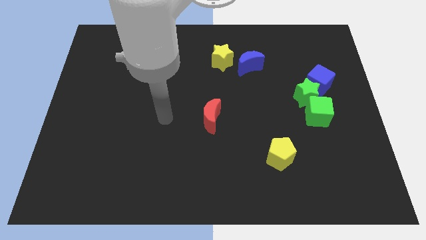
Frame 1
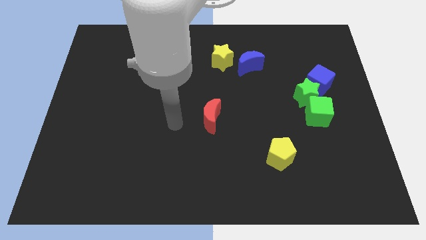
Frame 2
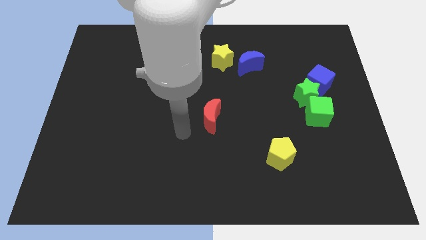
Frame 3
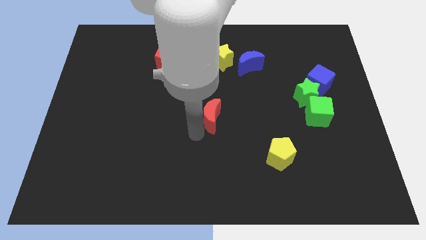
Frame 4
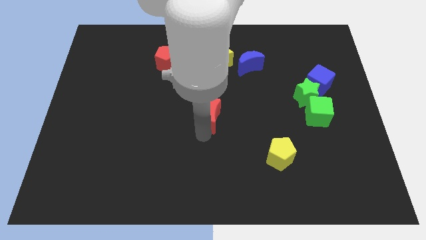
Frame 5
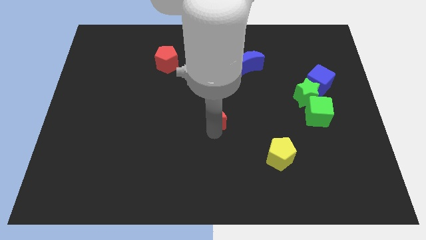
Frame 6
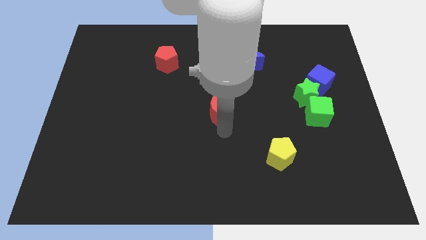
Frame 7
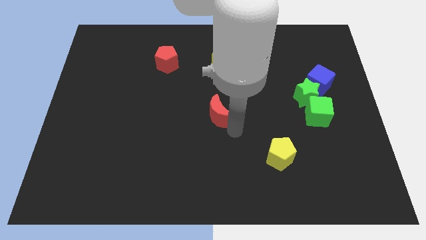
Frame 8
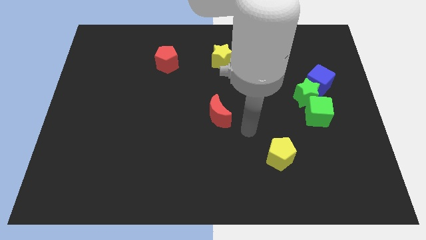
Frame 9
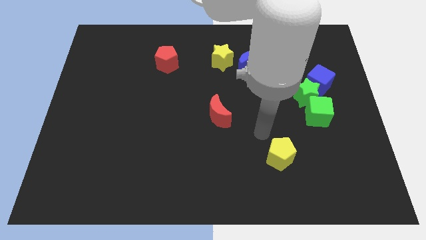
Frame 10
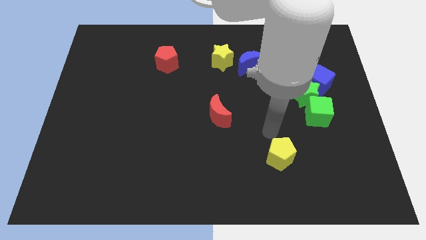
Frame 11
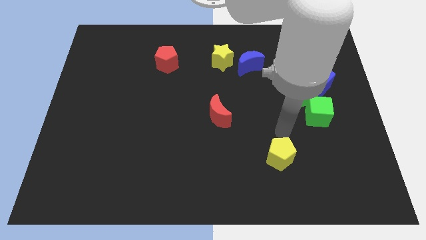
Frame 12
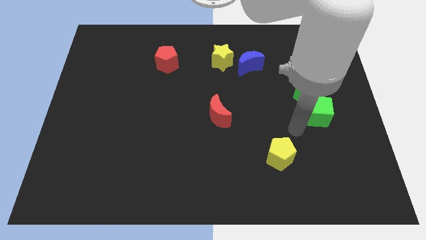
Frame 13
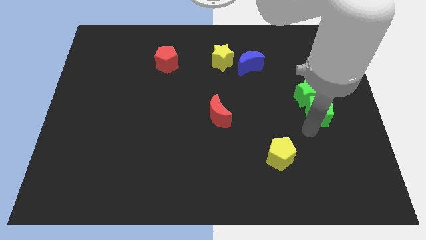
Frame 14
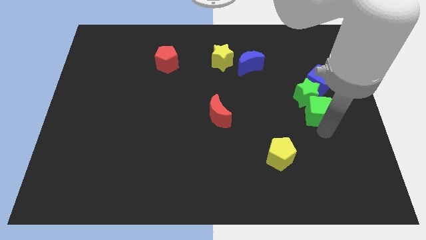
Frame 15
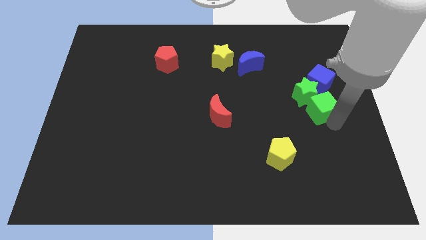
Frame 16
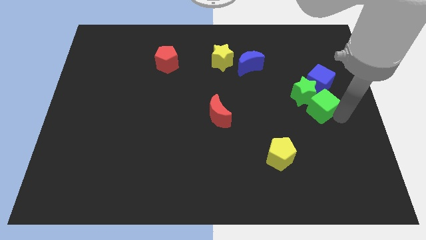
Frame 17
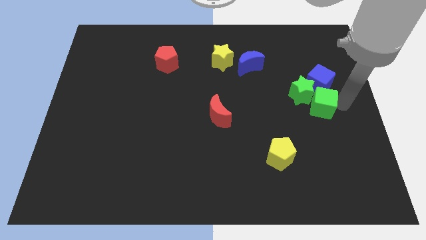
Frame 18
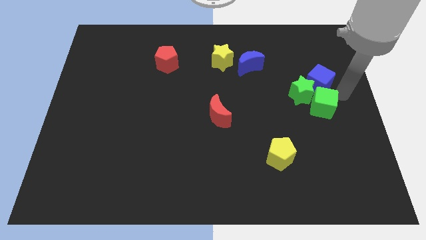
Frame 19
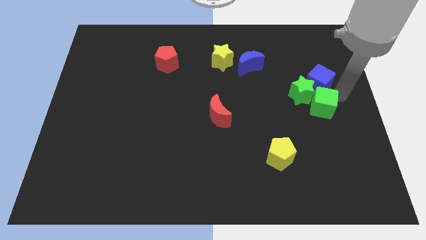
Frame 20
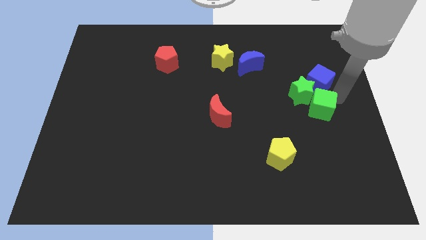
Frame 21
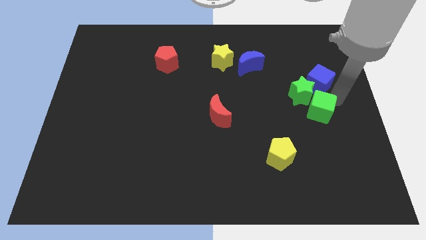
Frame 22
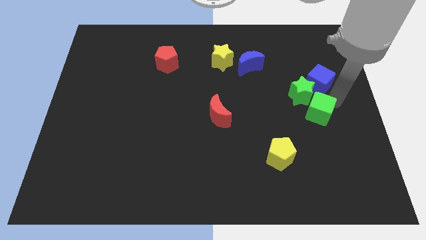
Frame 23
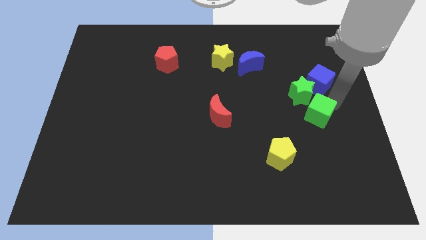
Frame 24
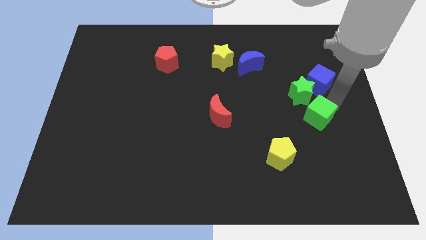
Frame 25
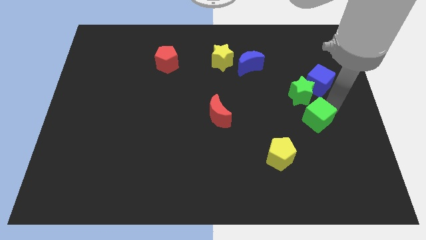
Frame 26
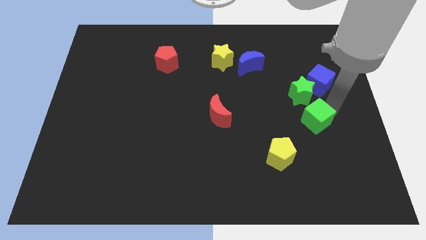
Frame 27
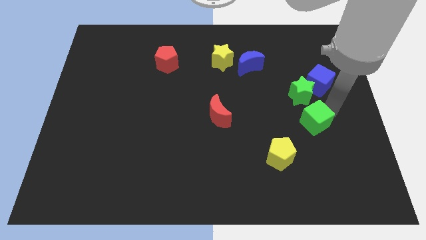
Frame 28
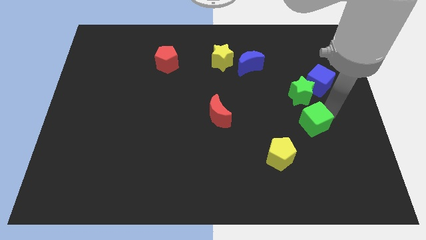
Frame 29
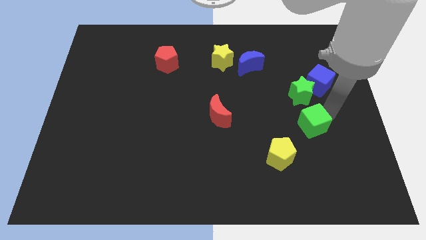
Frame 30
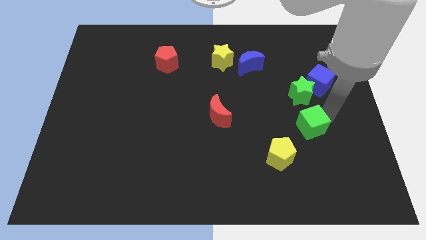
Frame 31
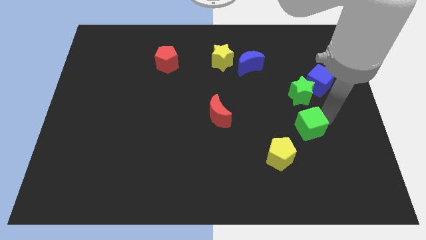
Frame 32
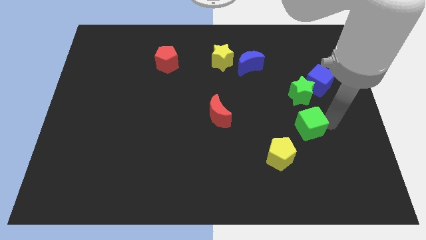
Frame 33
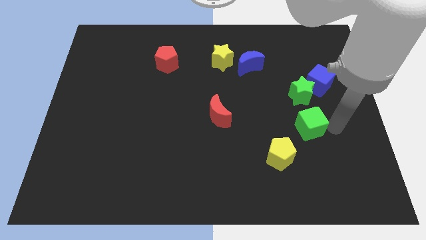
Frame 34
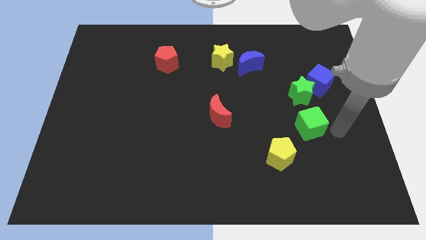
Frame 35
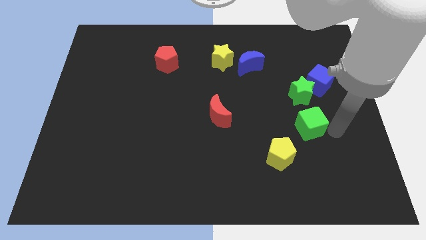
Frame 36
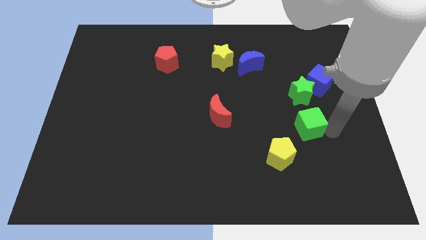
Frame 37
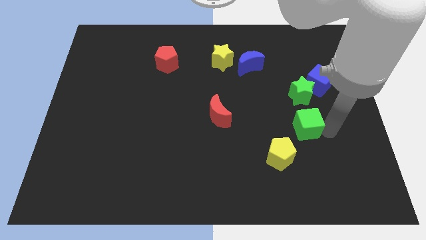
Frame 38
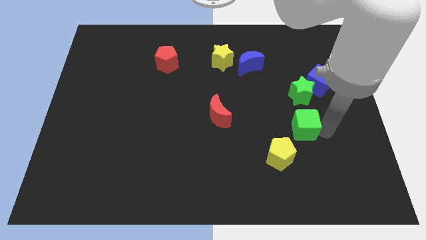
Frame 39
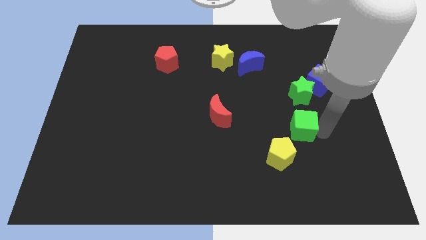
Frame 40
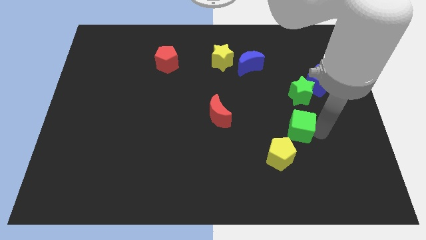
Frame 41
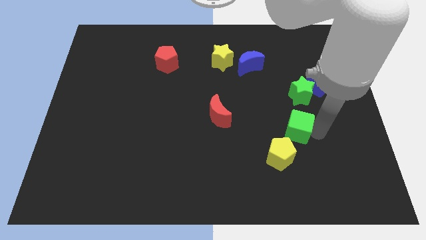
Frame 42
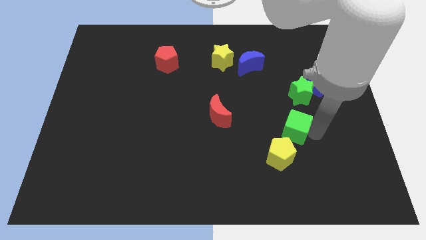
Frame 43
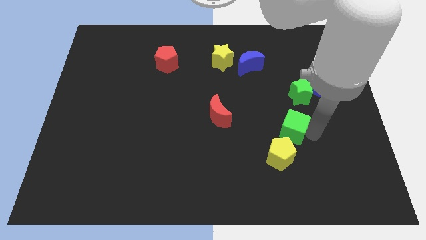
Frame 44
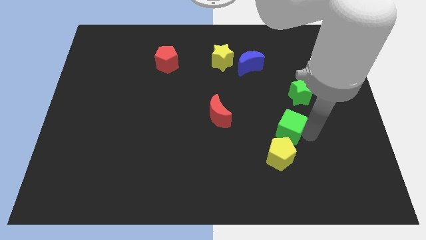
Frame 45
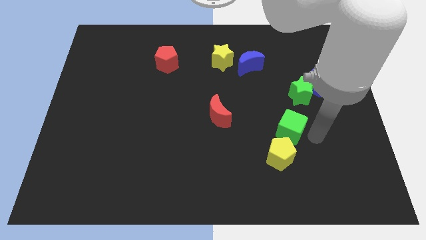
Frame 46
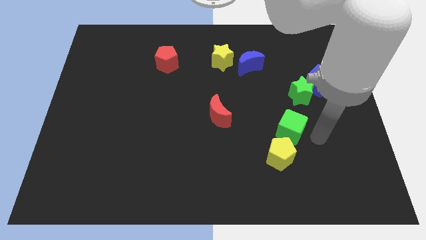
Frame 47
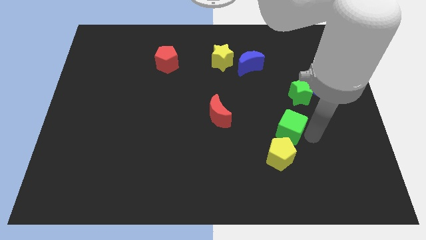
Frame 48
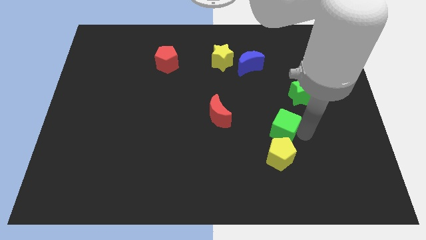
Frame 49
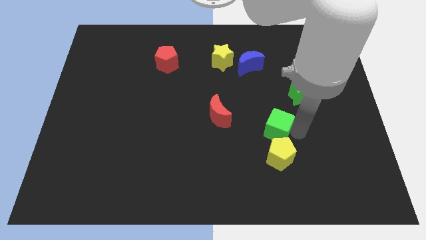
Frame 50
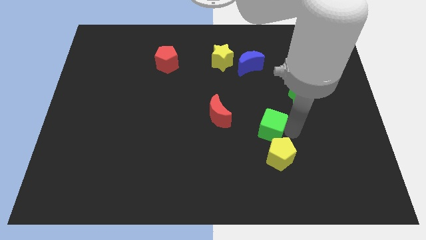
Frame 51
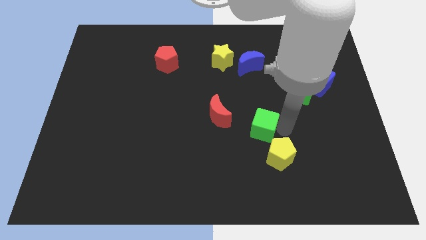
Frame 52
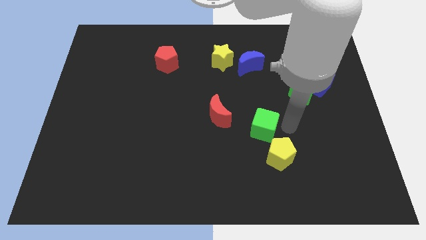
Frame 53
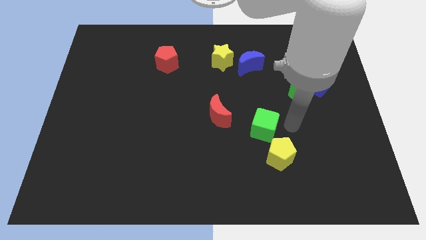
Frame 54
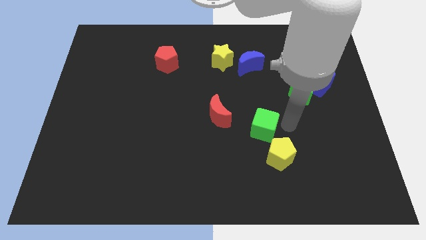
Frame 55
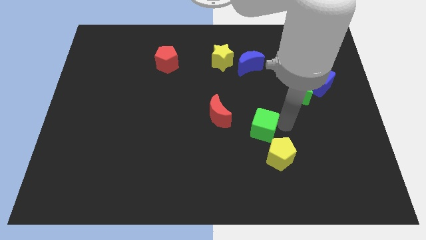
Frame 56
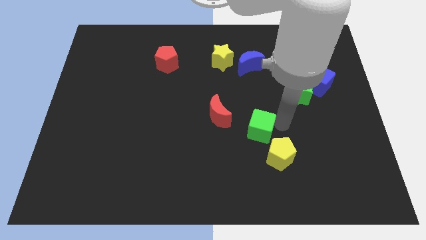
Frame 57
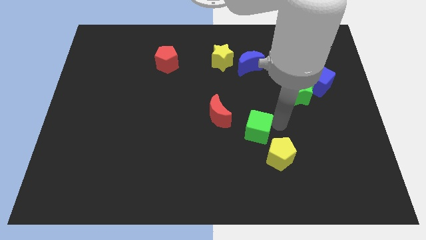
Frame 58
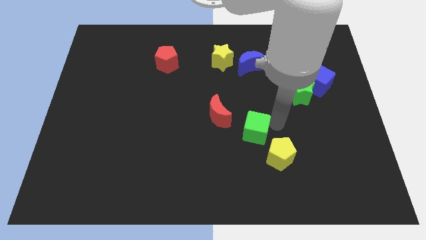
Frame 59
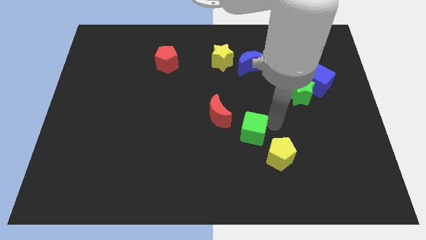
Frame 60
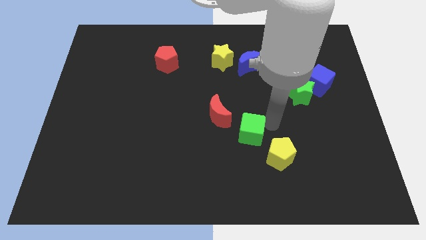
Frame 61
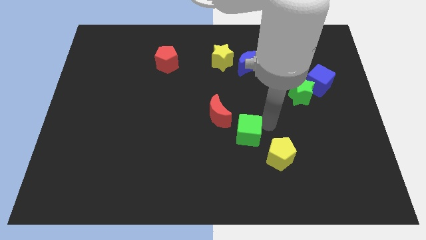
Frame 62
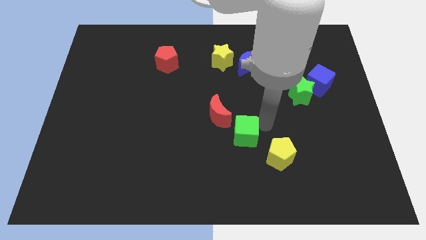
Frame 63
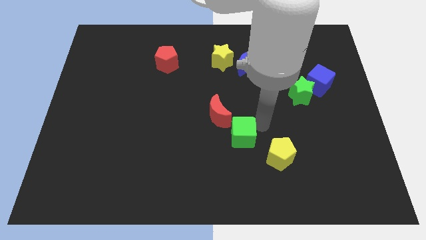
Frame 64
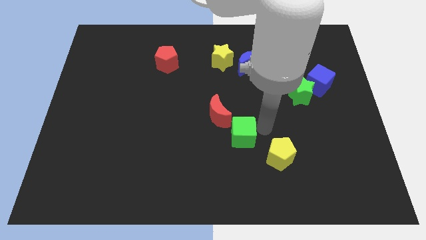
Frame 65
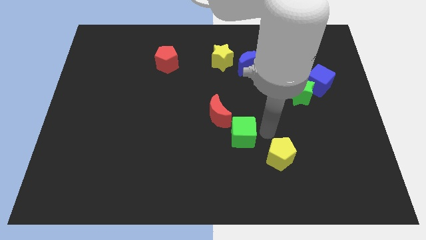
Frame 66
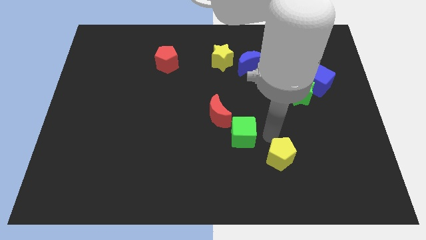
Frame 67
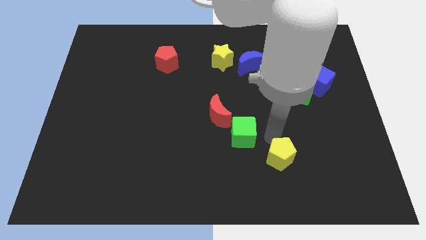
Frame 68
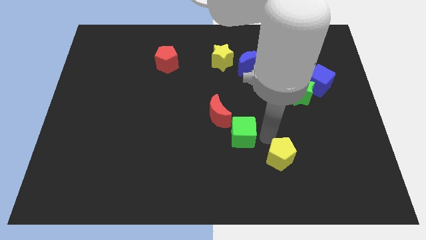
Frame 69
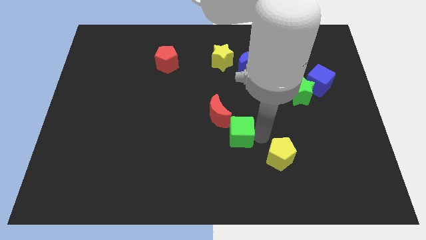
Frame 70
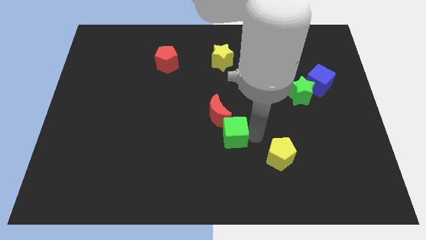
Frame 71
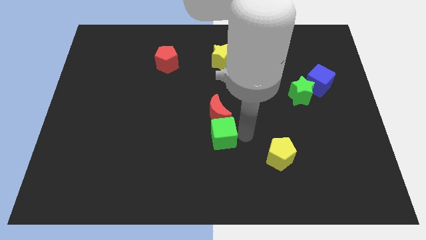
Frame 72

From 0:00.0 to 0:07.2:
slide the green cube to the bottom left side of the red moon

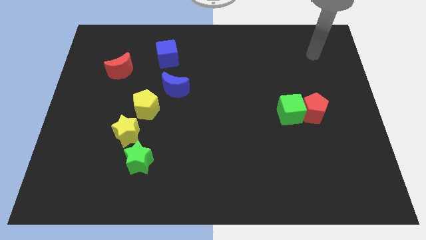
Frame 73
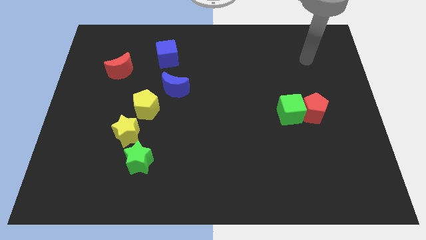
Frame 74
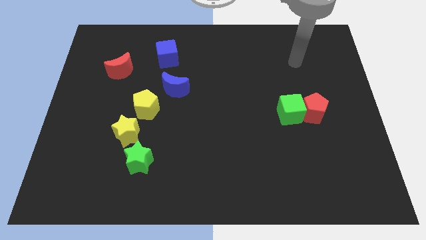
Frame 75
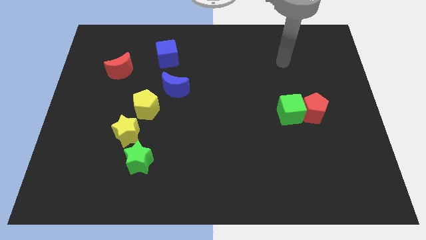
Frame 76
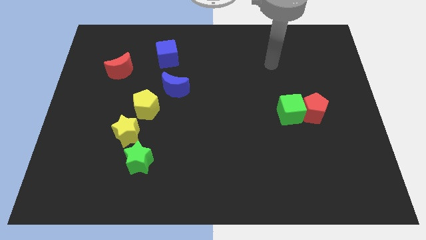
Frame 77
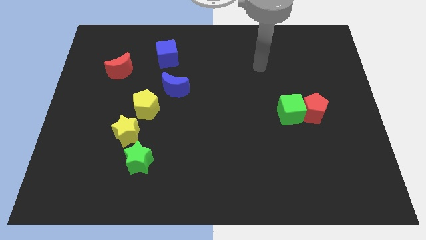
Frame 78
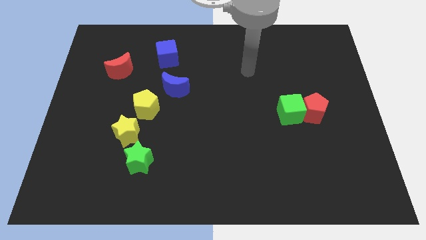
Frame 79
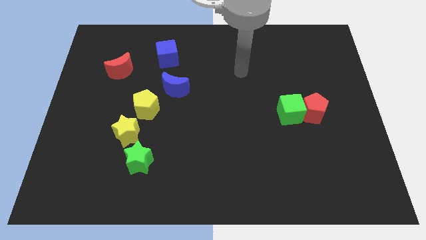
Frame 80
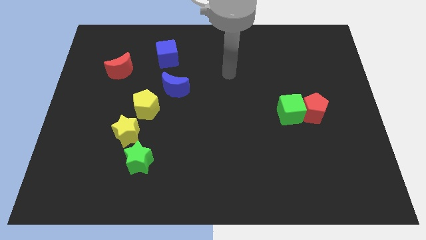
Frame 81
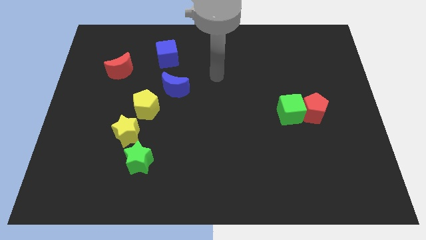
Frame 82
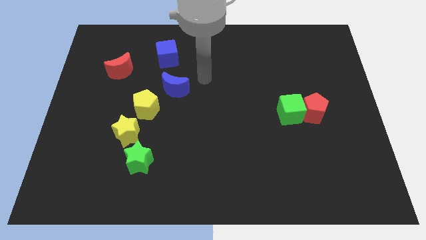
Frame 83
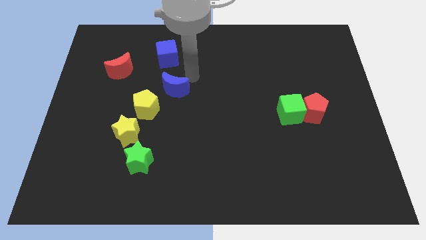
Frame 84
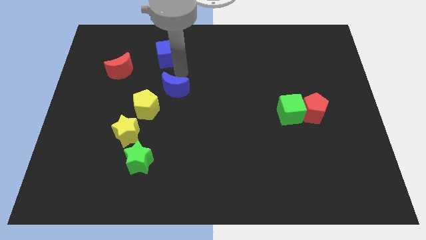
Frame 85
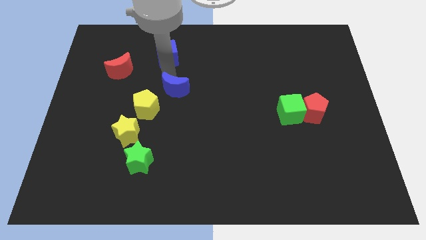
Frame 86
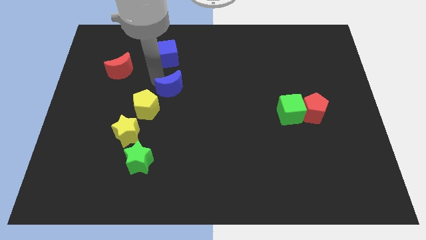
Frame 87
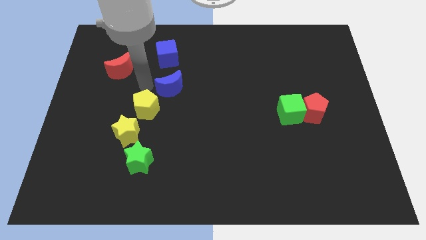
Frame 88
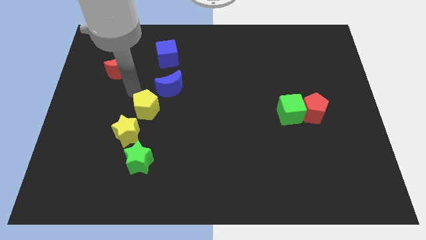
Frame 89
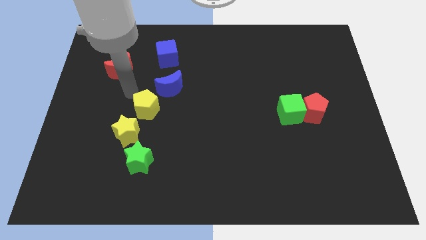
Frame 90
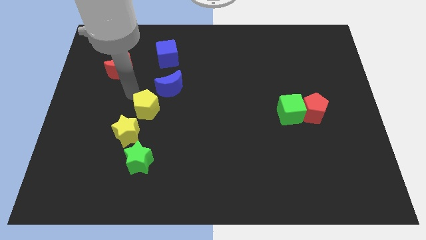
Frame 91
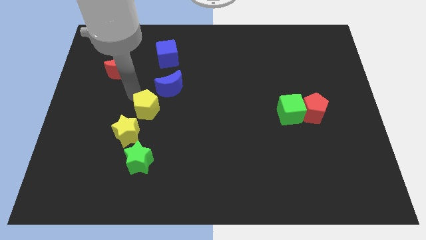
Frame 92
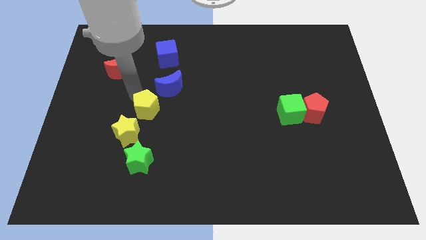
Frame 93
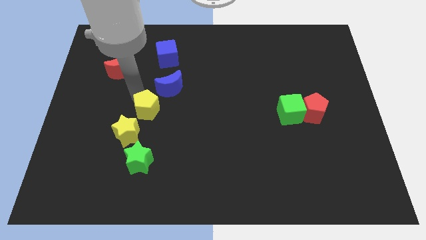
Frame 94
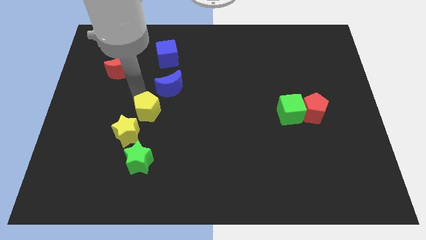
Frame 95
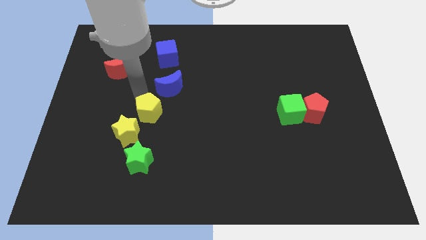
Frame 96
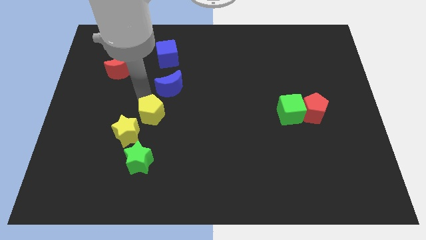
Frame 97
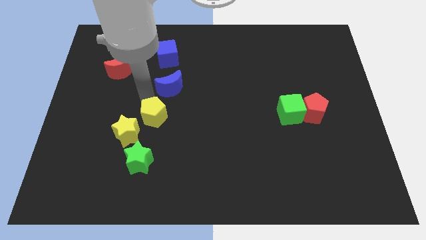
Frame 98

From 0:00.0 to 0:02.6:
move the yellow pentagon to the right side of the yellow star
